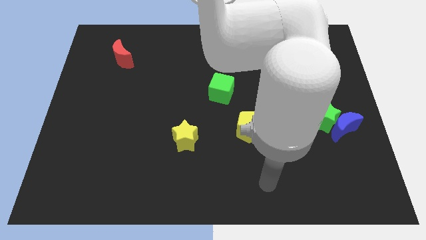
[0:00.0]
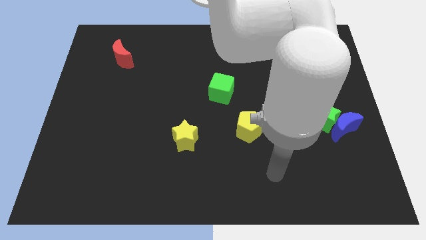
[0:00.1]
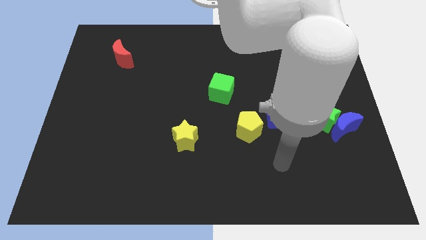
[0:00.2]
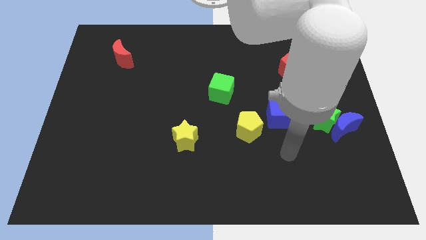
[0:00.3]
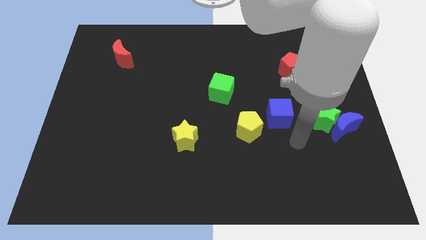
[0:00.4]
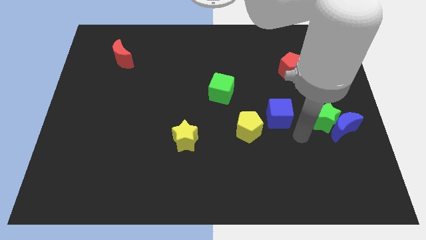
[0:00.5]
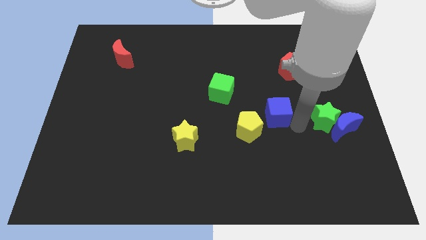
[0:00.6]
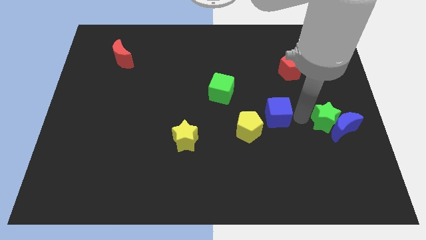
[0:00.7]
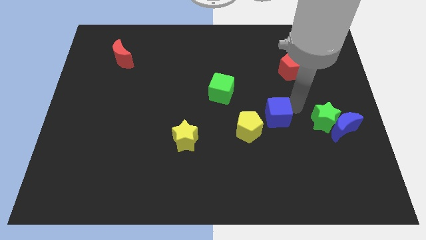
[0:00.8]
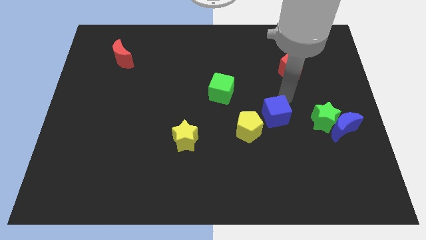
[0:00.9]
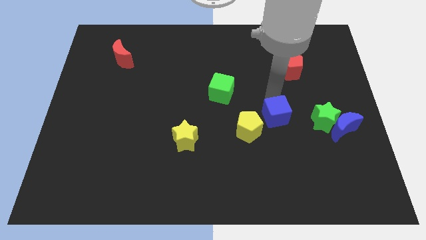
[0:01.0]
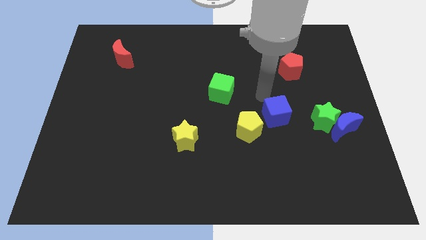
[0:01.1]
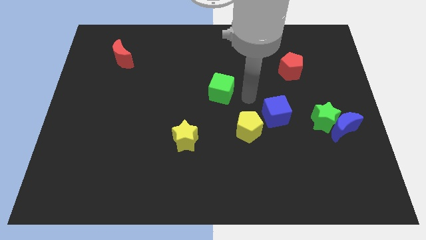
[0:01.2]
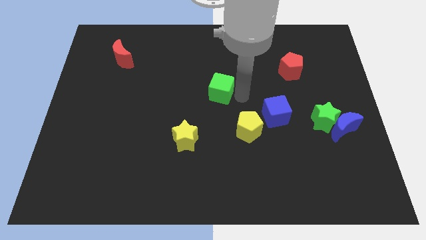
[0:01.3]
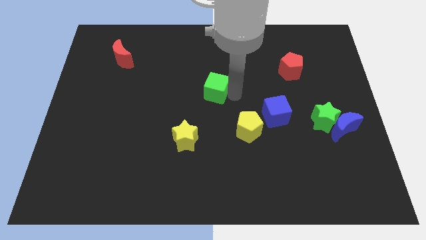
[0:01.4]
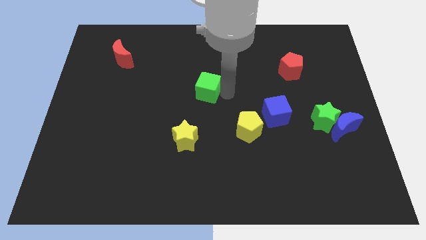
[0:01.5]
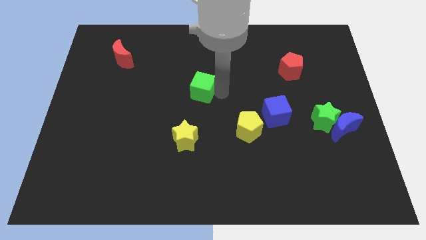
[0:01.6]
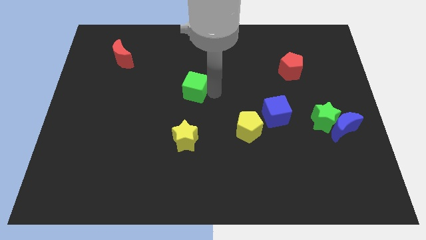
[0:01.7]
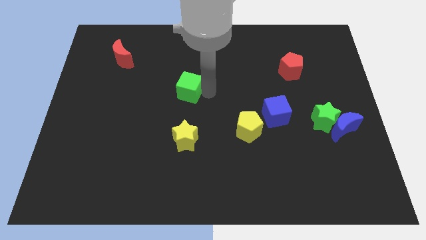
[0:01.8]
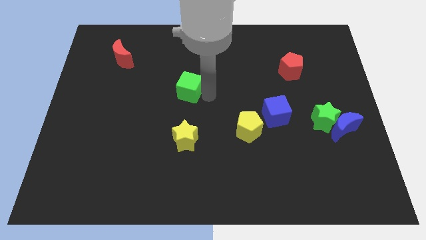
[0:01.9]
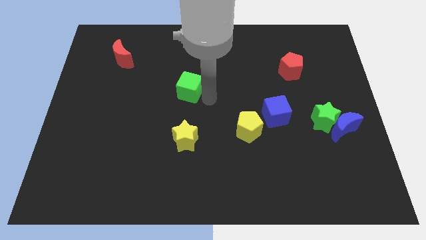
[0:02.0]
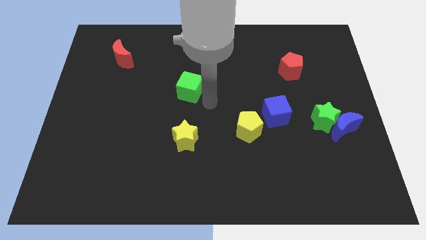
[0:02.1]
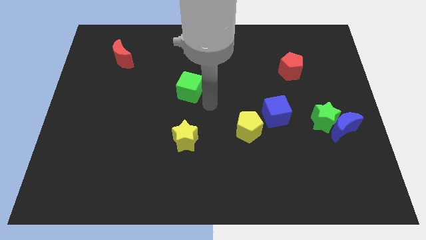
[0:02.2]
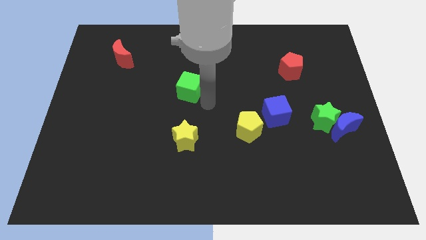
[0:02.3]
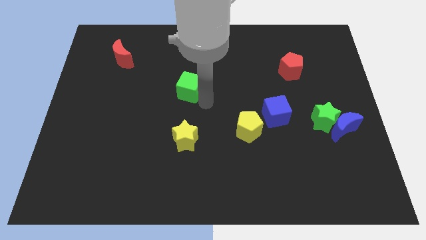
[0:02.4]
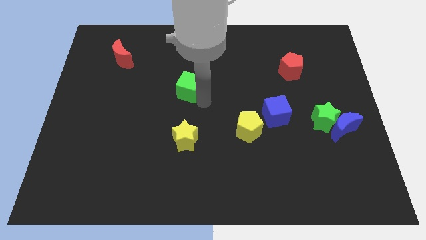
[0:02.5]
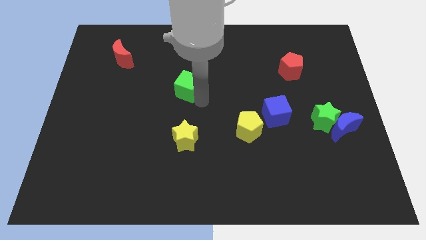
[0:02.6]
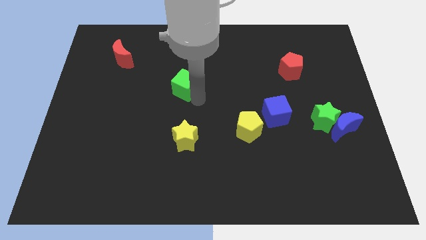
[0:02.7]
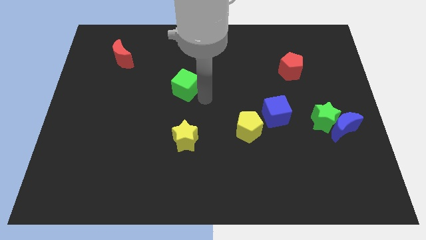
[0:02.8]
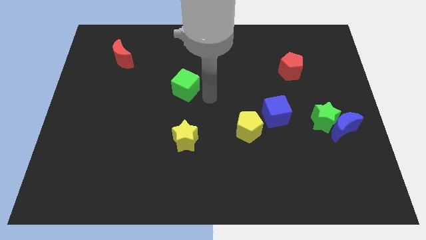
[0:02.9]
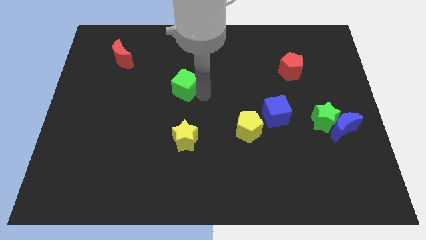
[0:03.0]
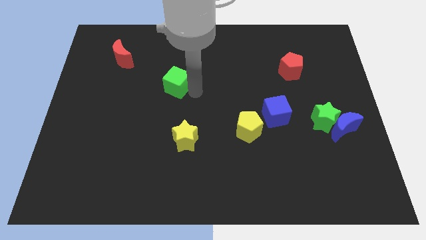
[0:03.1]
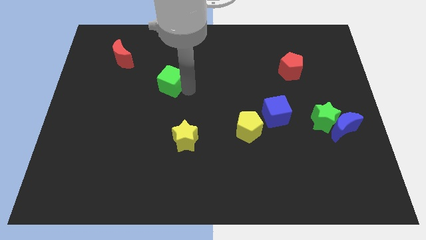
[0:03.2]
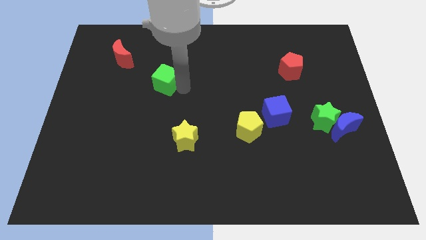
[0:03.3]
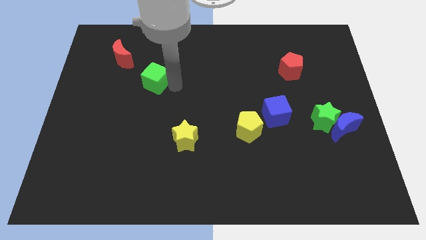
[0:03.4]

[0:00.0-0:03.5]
push the green cube to the bottom right side of the red moon

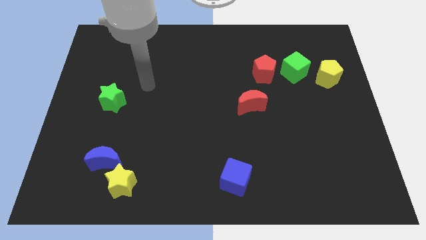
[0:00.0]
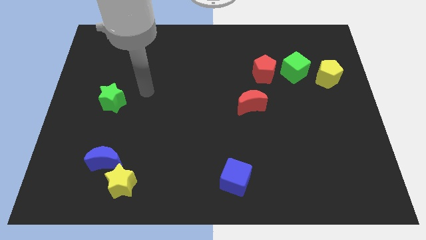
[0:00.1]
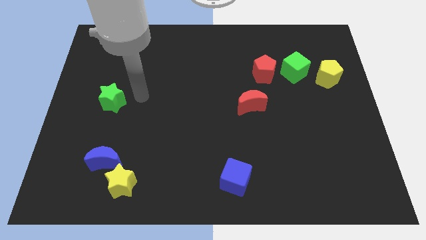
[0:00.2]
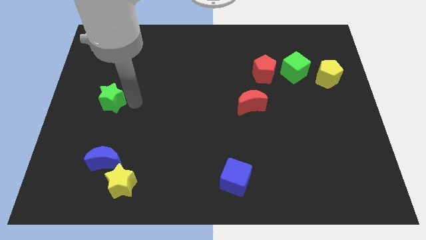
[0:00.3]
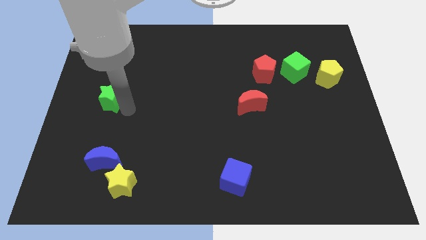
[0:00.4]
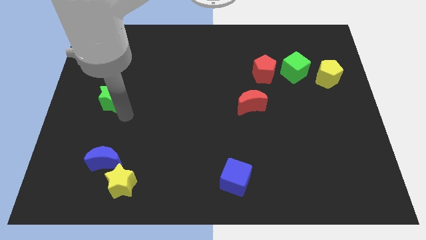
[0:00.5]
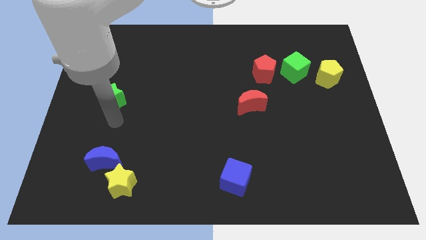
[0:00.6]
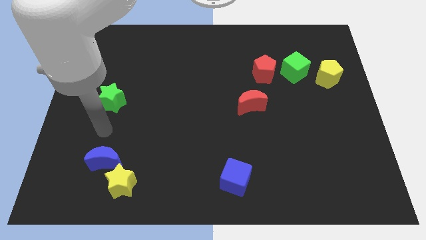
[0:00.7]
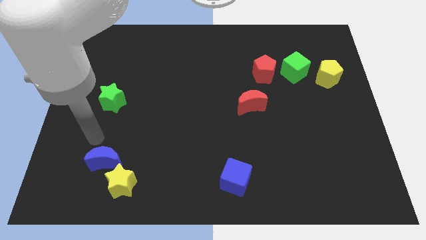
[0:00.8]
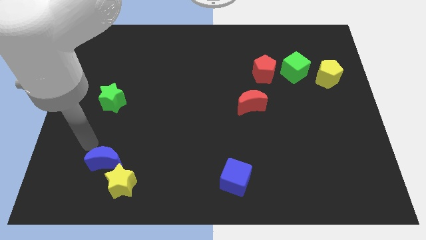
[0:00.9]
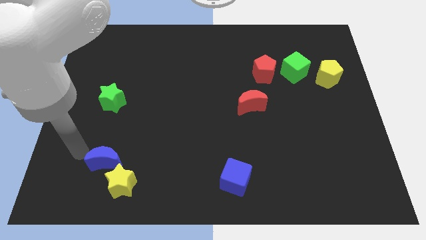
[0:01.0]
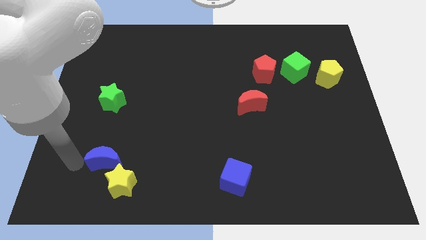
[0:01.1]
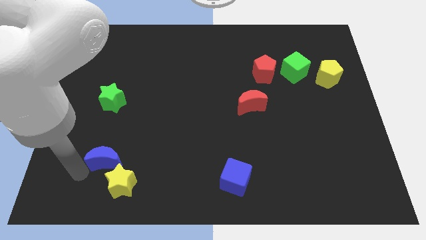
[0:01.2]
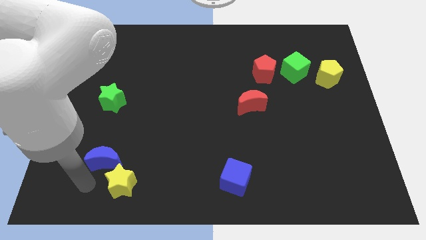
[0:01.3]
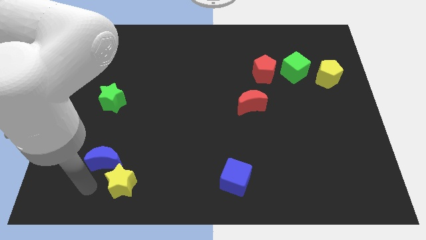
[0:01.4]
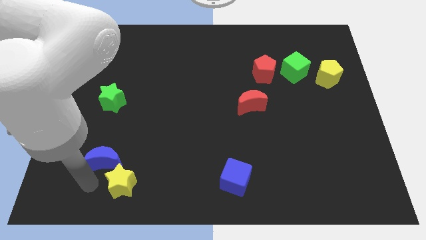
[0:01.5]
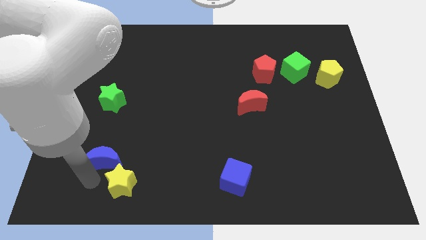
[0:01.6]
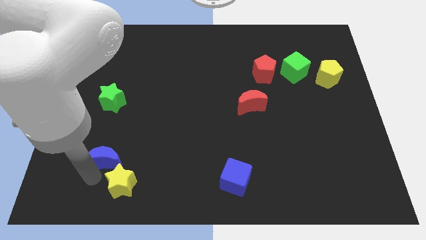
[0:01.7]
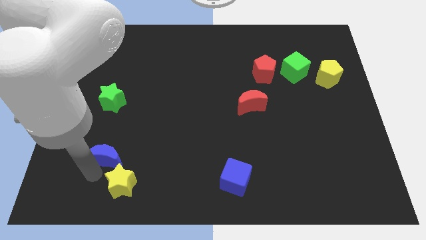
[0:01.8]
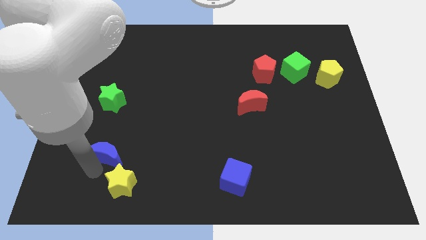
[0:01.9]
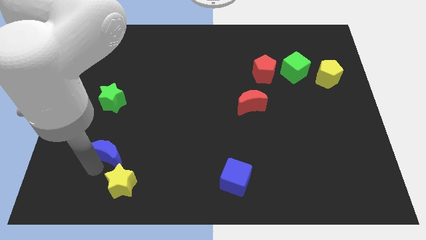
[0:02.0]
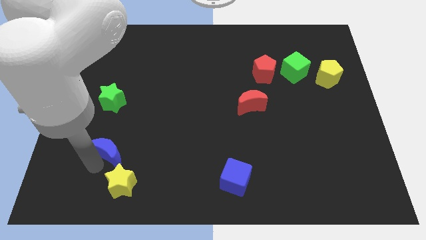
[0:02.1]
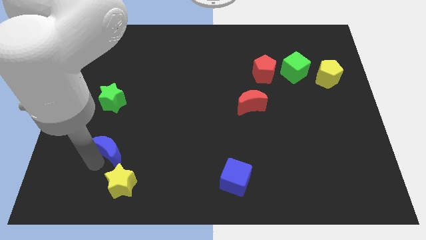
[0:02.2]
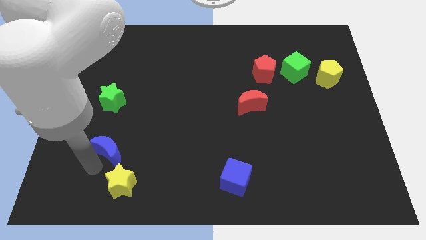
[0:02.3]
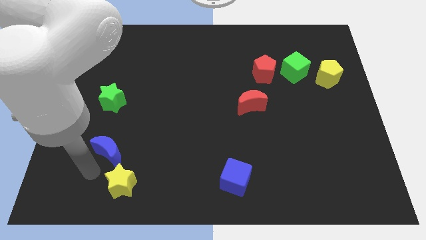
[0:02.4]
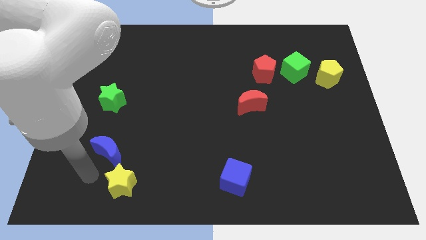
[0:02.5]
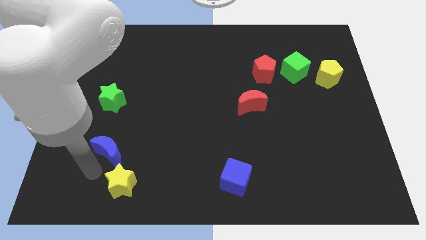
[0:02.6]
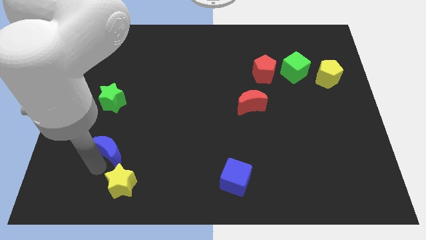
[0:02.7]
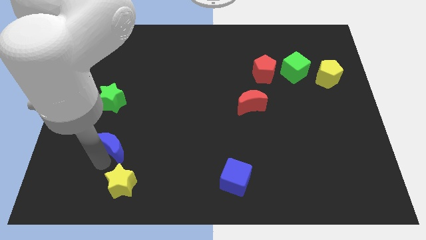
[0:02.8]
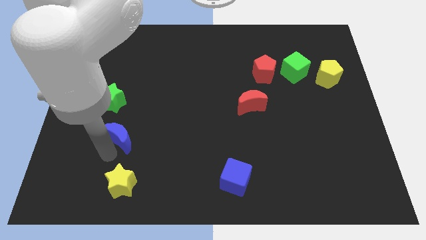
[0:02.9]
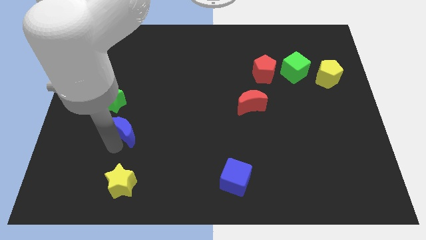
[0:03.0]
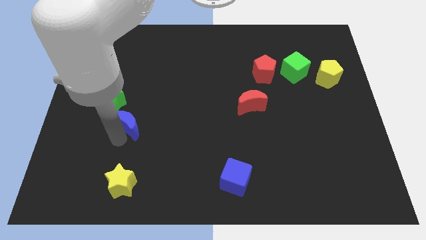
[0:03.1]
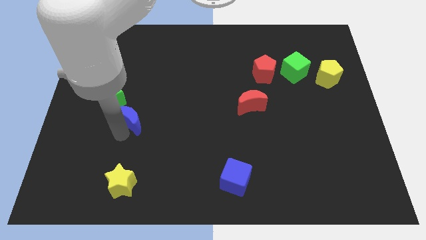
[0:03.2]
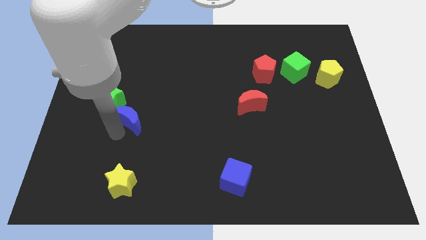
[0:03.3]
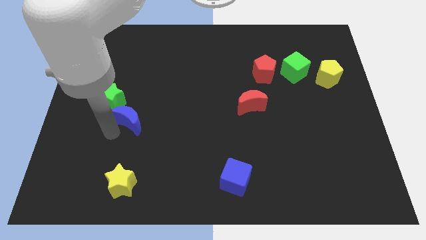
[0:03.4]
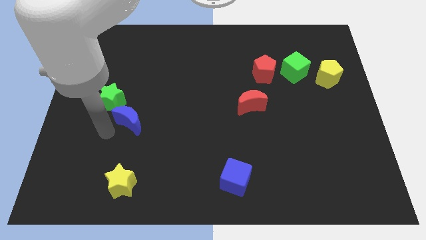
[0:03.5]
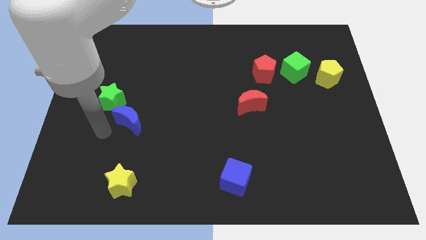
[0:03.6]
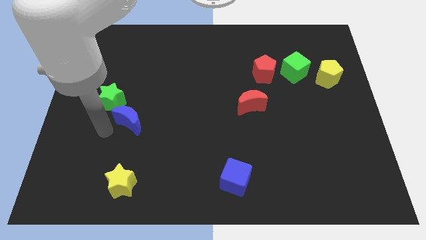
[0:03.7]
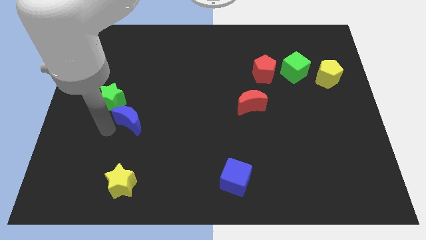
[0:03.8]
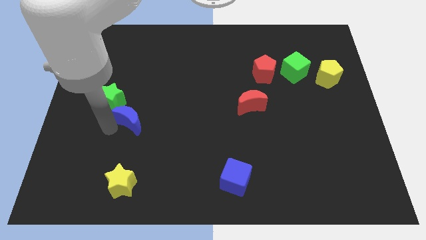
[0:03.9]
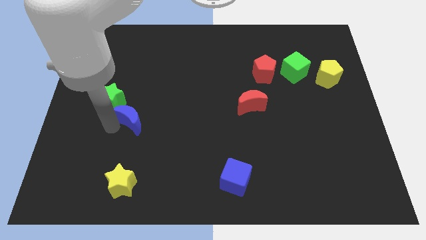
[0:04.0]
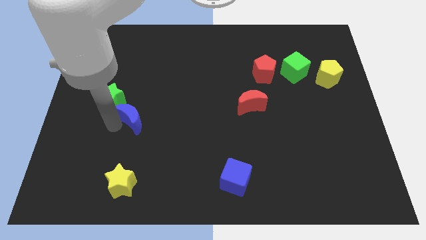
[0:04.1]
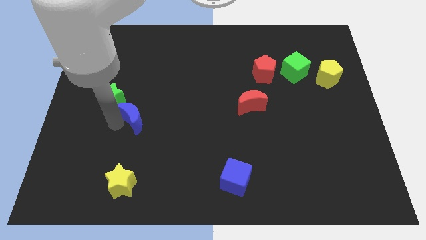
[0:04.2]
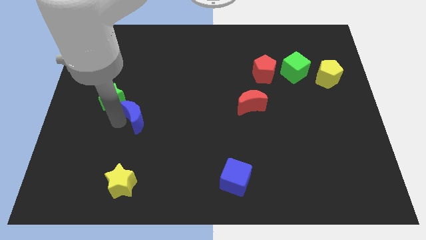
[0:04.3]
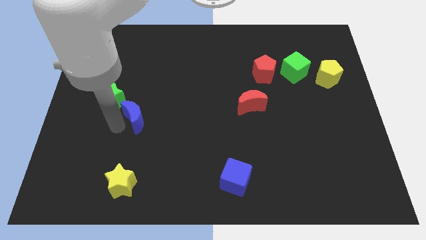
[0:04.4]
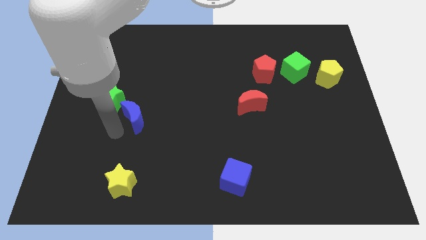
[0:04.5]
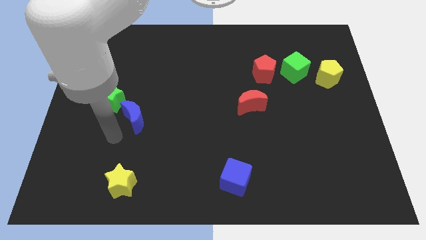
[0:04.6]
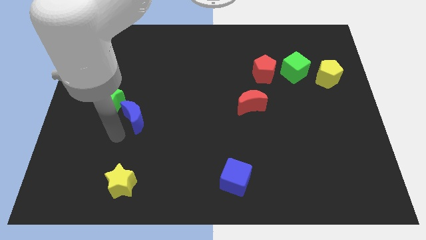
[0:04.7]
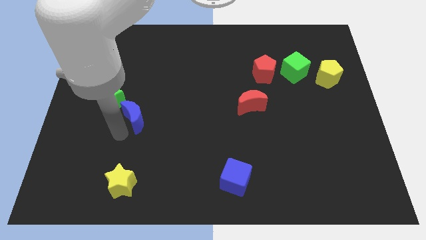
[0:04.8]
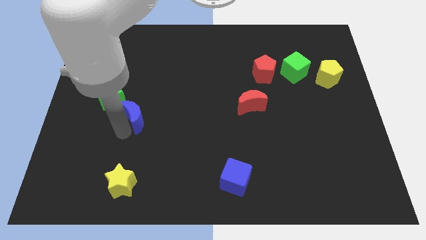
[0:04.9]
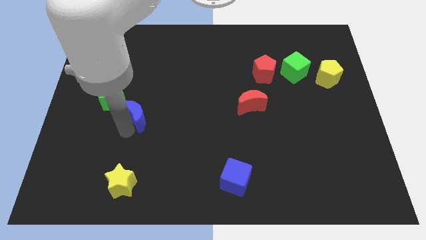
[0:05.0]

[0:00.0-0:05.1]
push the blue moon right of the green star
